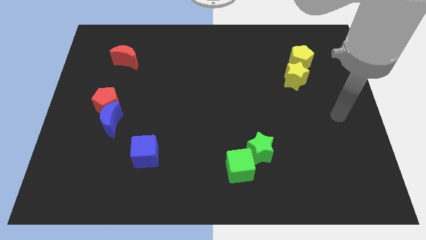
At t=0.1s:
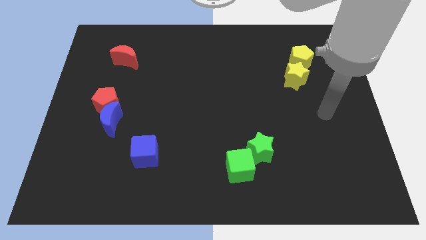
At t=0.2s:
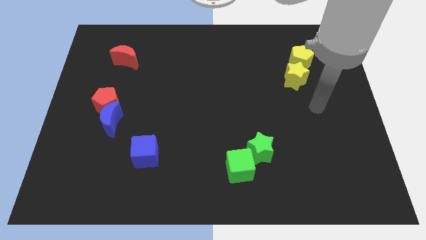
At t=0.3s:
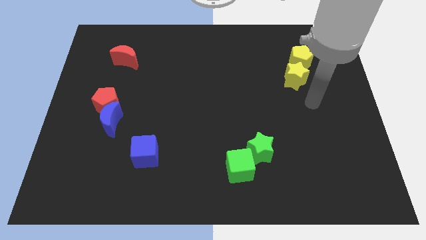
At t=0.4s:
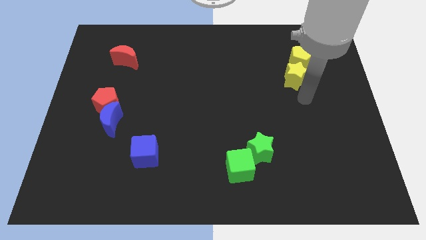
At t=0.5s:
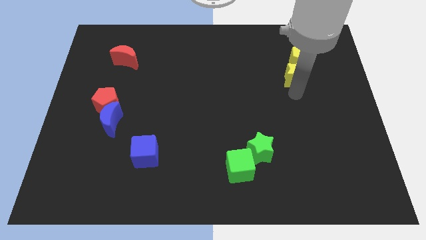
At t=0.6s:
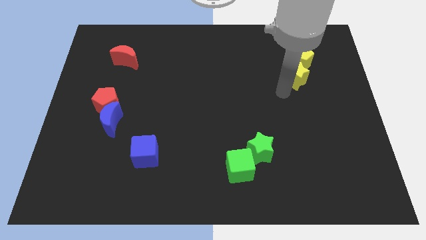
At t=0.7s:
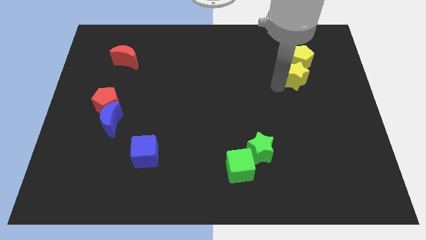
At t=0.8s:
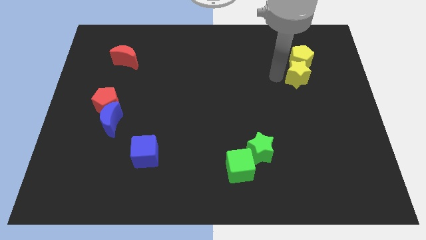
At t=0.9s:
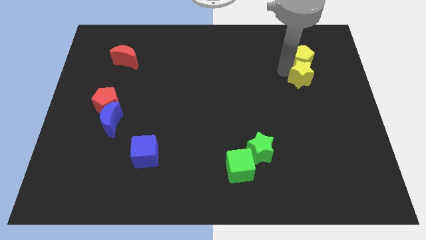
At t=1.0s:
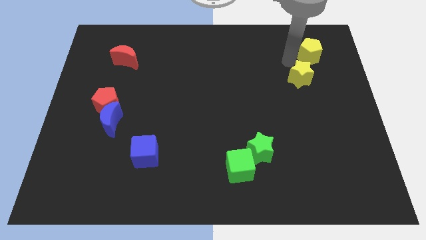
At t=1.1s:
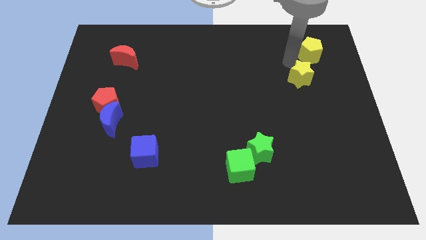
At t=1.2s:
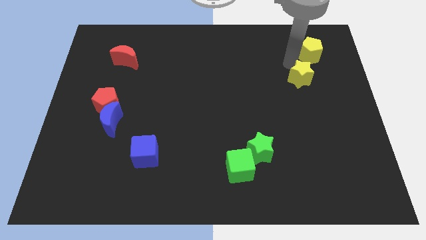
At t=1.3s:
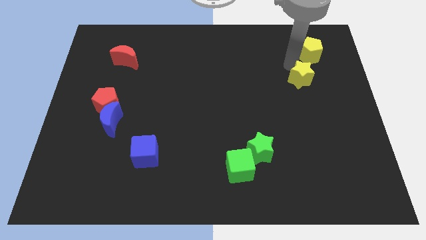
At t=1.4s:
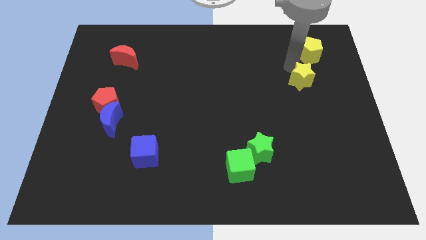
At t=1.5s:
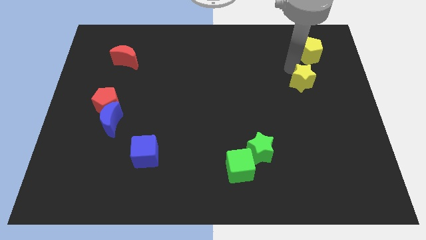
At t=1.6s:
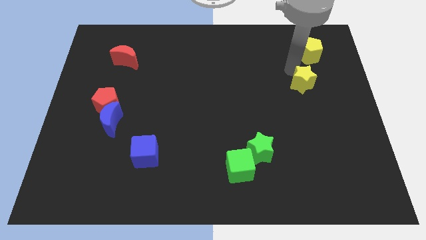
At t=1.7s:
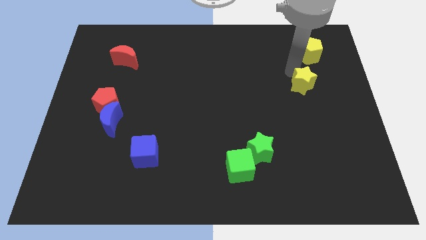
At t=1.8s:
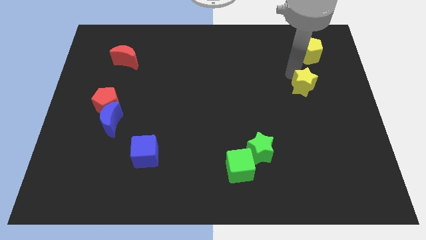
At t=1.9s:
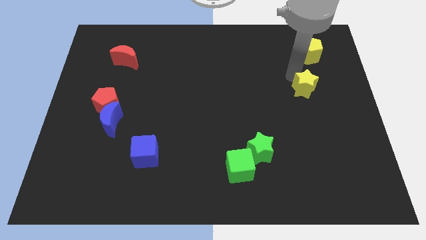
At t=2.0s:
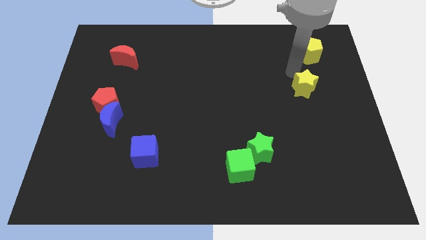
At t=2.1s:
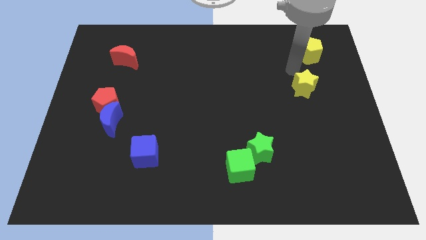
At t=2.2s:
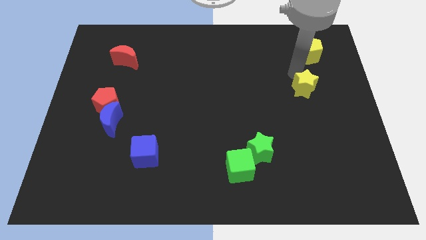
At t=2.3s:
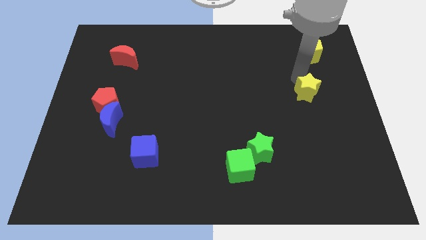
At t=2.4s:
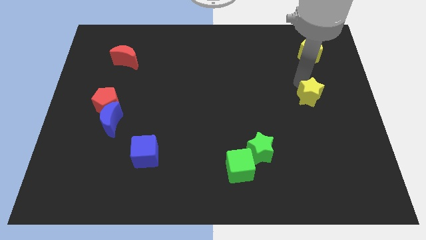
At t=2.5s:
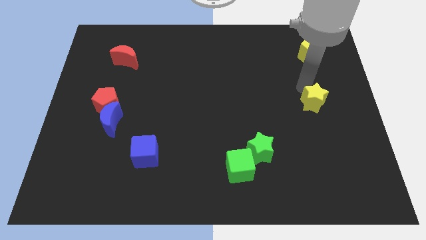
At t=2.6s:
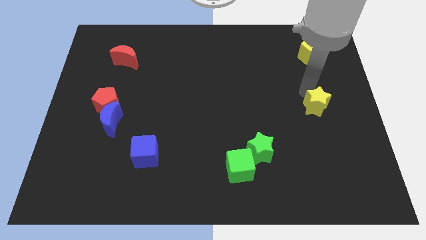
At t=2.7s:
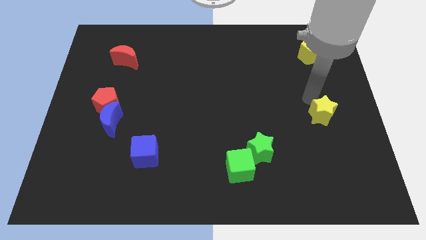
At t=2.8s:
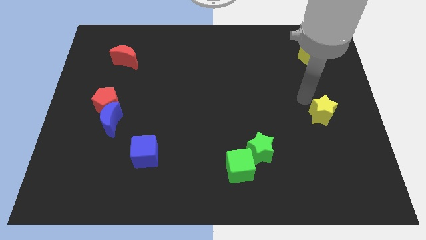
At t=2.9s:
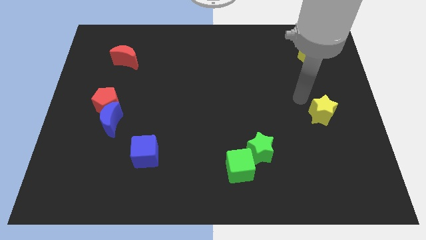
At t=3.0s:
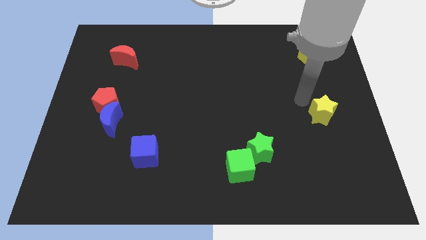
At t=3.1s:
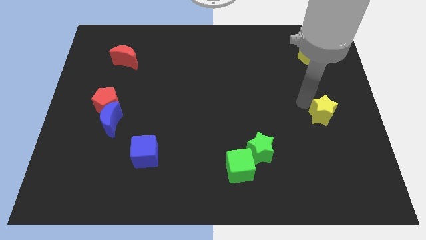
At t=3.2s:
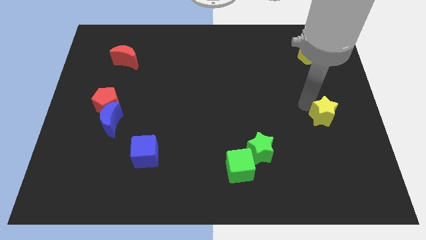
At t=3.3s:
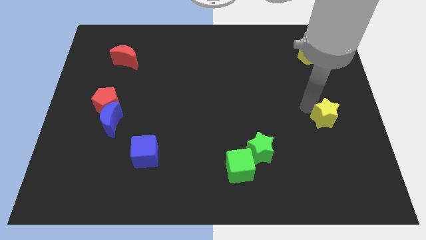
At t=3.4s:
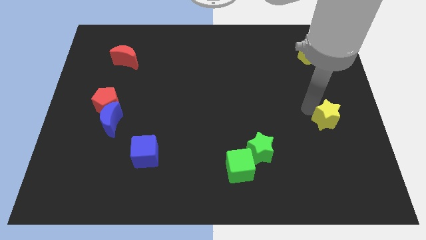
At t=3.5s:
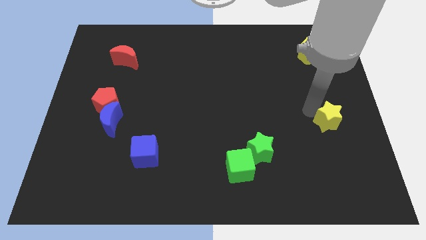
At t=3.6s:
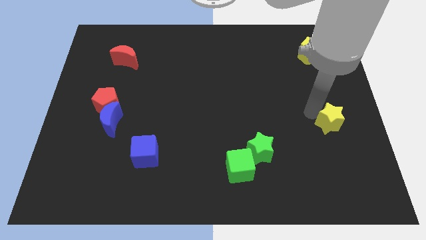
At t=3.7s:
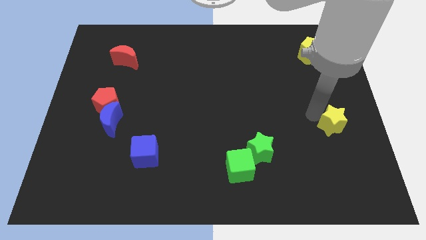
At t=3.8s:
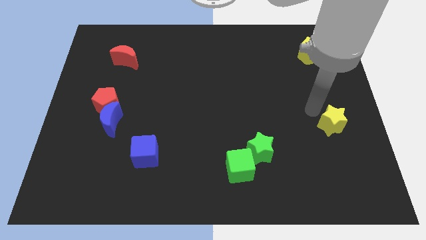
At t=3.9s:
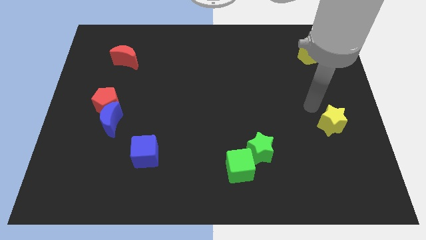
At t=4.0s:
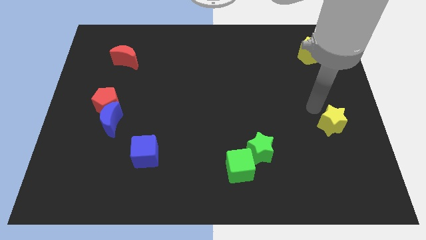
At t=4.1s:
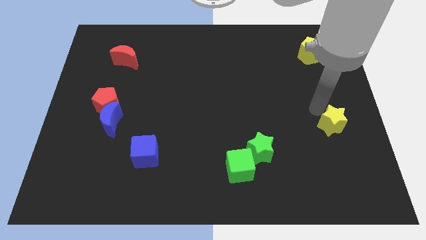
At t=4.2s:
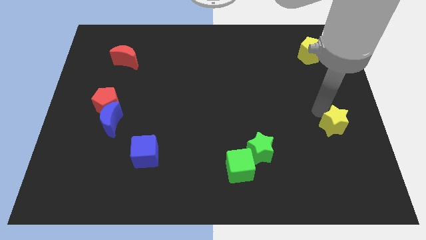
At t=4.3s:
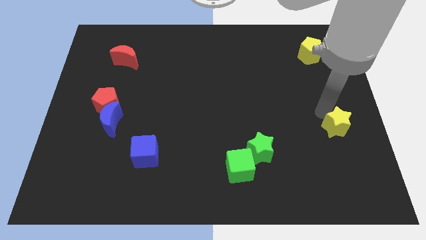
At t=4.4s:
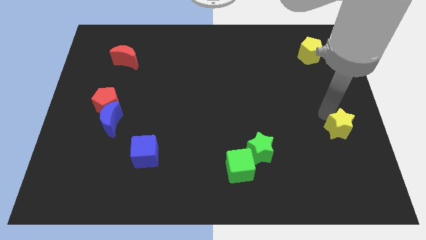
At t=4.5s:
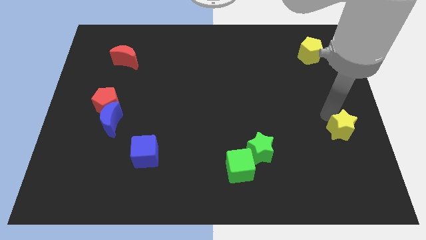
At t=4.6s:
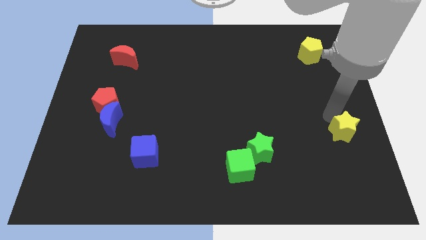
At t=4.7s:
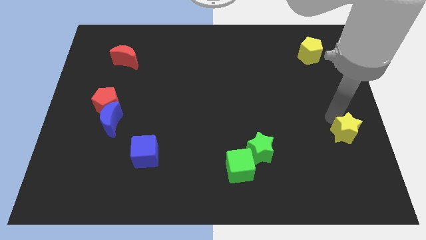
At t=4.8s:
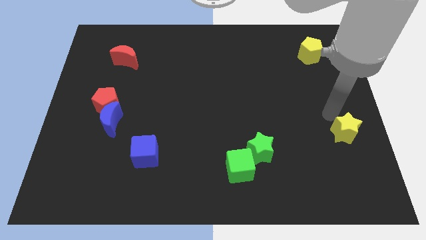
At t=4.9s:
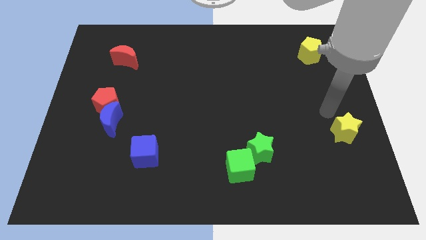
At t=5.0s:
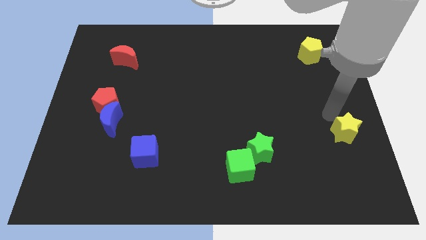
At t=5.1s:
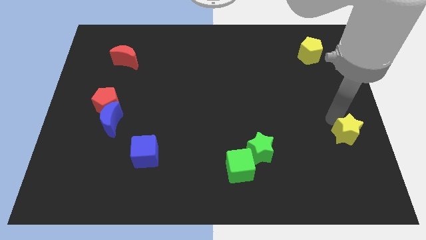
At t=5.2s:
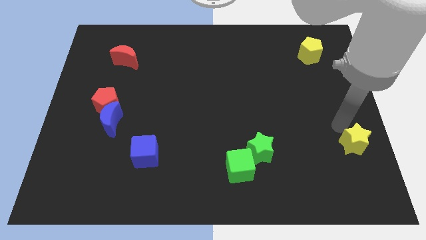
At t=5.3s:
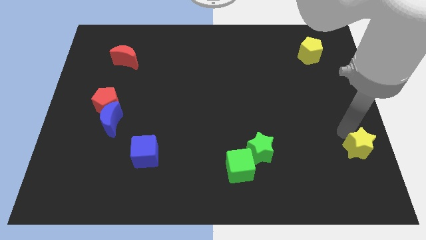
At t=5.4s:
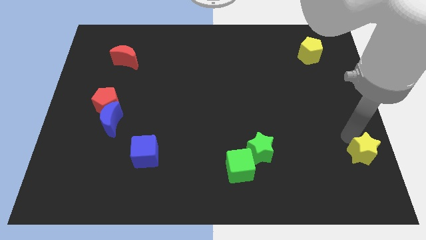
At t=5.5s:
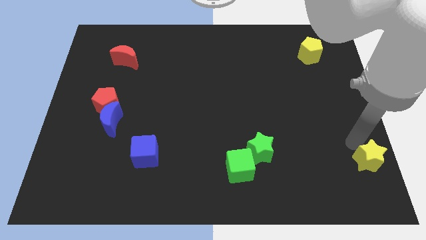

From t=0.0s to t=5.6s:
move the yellow star to the bottom right corner
